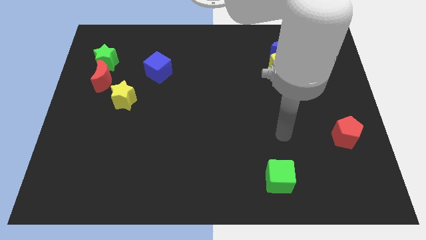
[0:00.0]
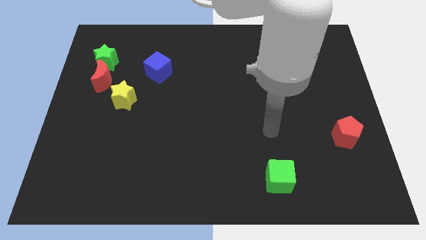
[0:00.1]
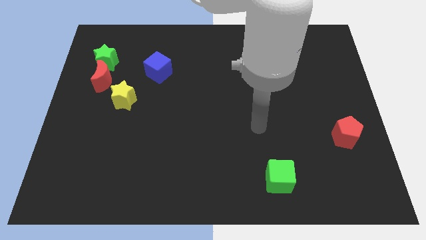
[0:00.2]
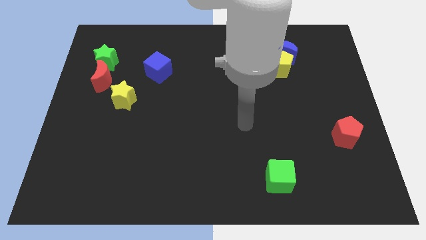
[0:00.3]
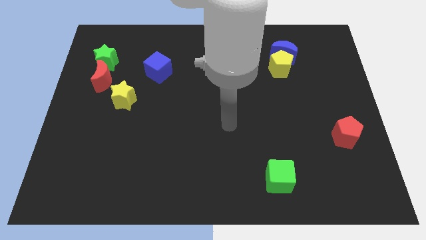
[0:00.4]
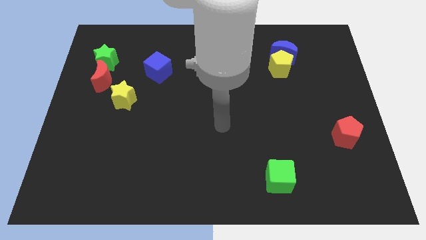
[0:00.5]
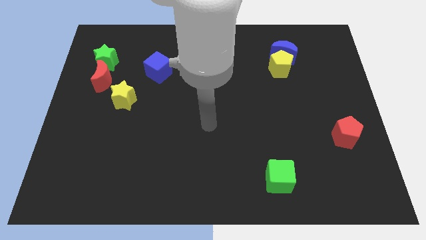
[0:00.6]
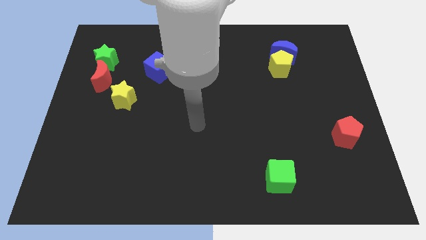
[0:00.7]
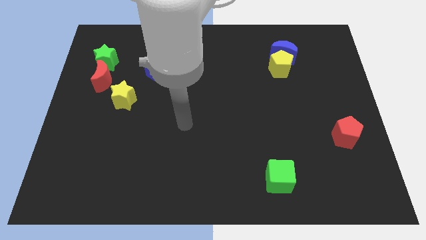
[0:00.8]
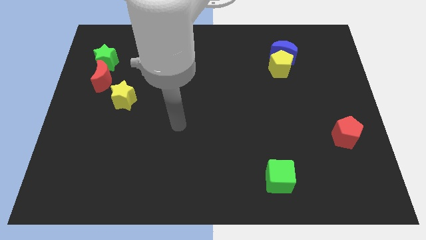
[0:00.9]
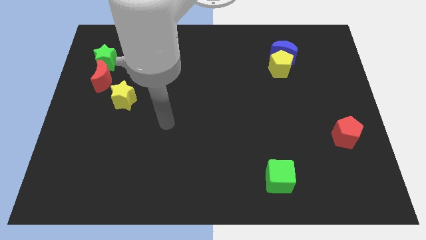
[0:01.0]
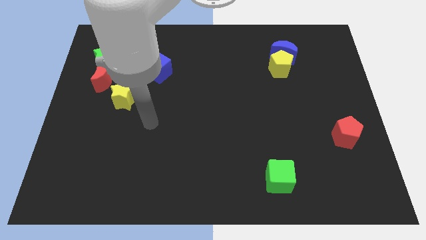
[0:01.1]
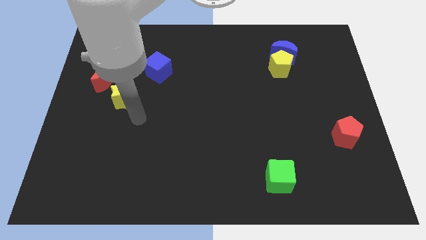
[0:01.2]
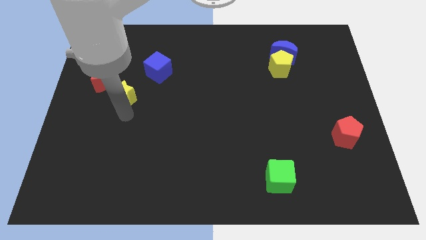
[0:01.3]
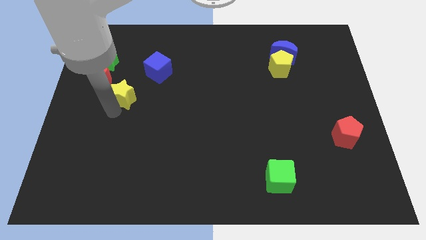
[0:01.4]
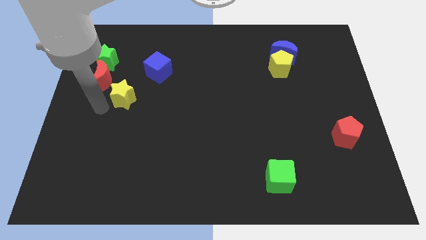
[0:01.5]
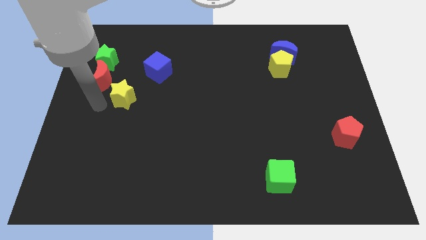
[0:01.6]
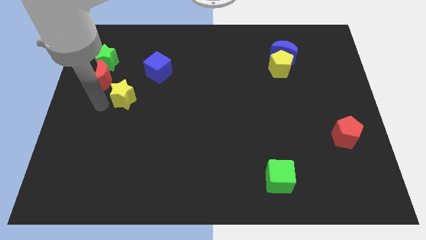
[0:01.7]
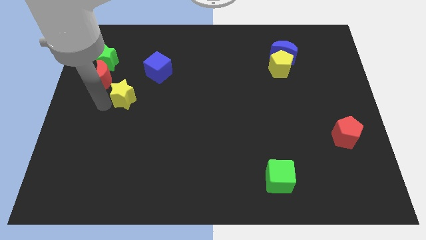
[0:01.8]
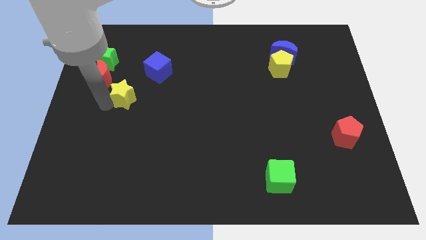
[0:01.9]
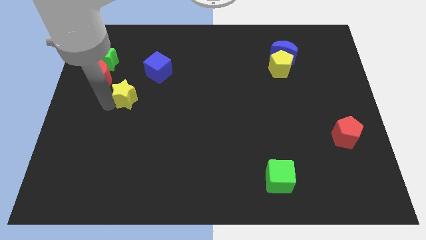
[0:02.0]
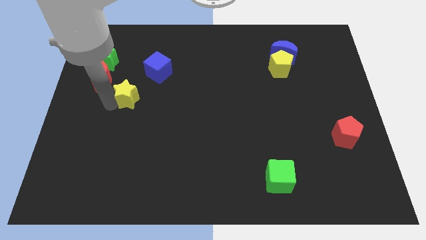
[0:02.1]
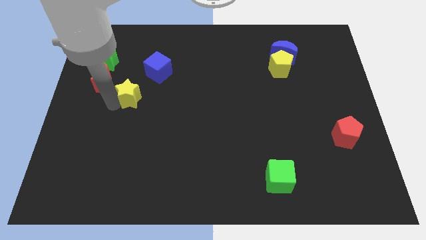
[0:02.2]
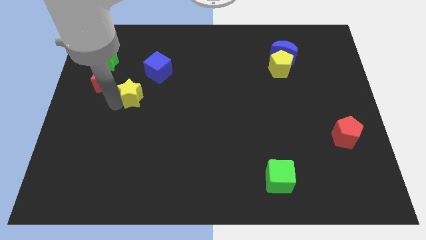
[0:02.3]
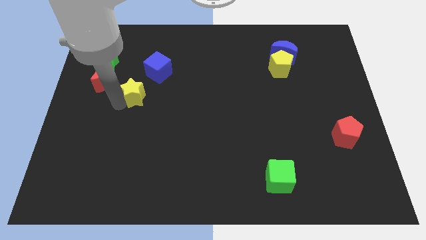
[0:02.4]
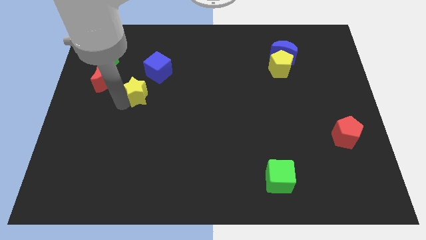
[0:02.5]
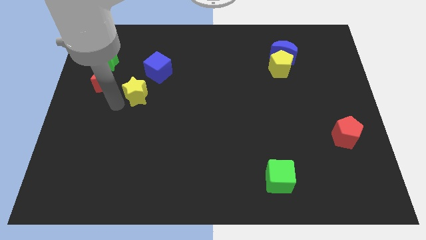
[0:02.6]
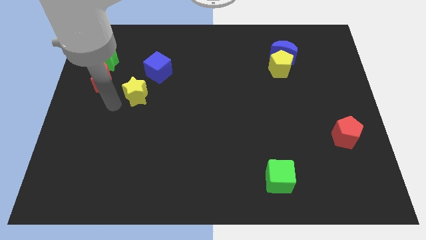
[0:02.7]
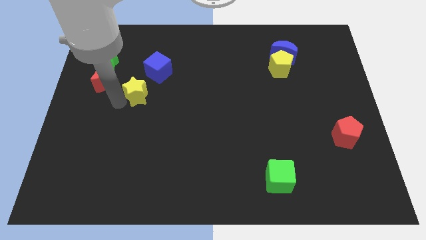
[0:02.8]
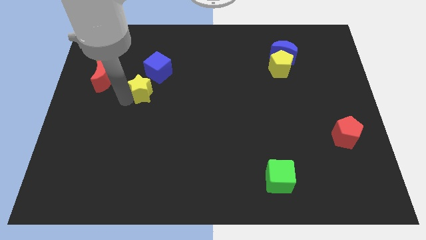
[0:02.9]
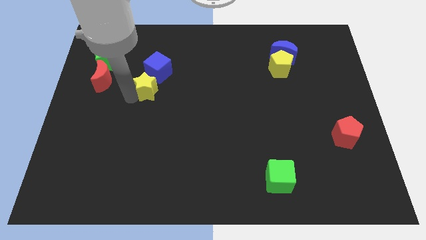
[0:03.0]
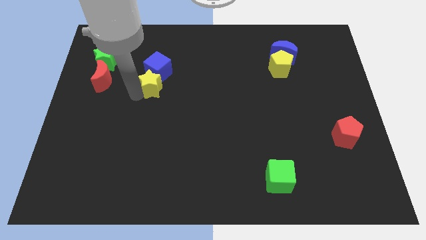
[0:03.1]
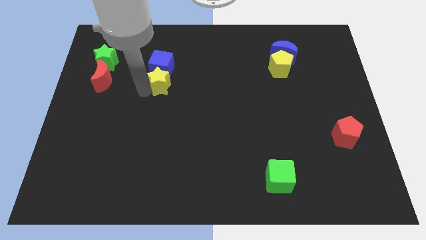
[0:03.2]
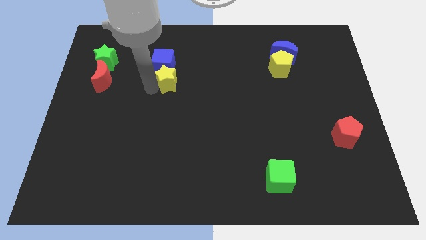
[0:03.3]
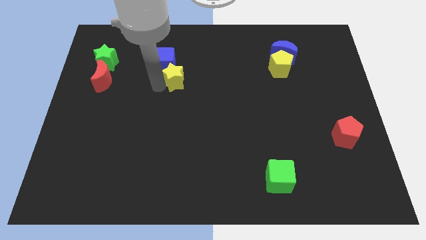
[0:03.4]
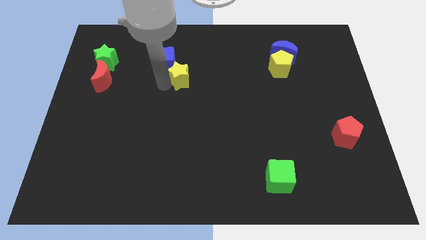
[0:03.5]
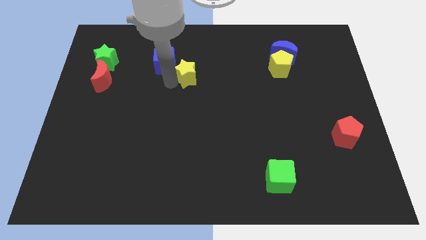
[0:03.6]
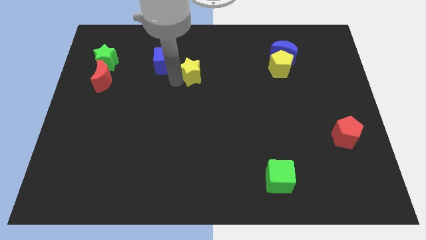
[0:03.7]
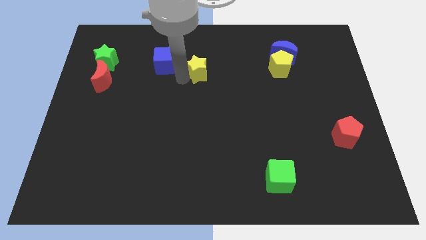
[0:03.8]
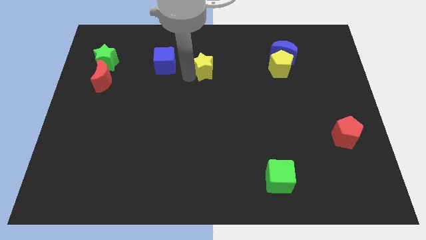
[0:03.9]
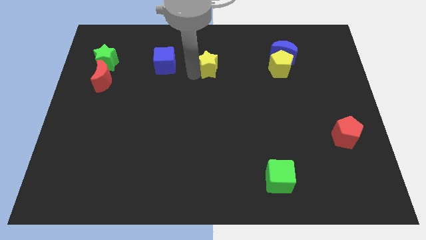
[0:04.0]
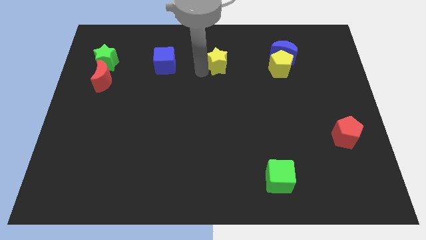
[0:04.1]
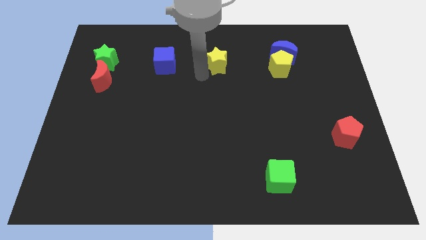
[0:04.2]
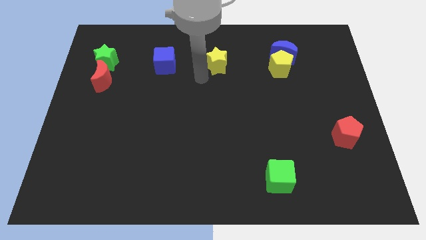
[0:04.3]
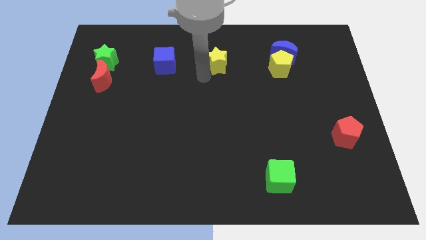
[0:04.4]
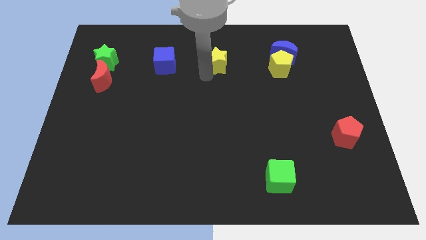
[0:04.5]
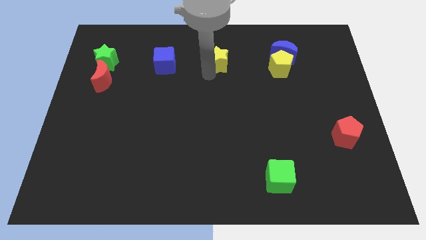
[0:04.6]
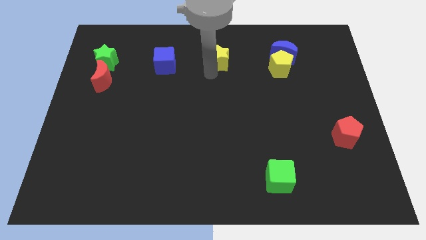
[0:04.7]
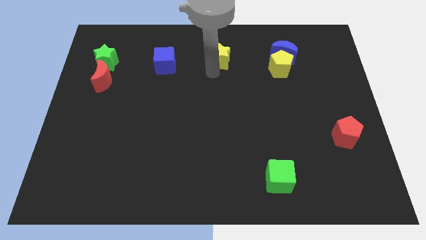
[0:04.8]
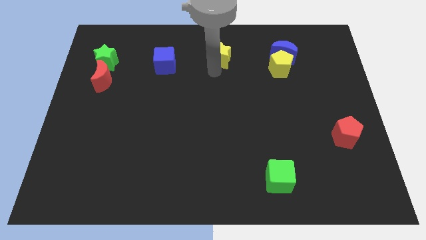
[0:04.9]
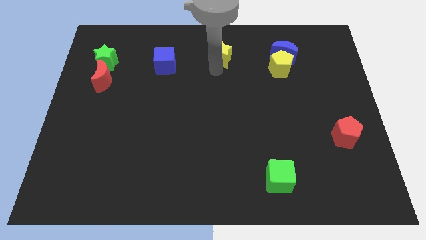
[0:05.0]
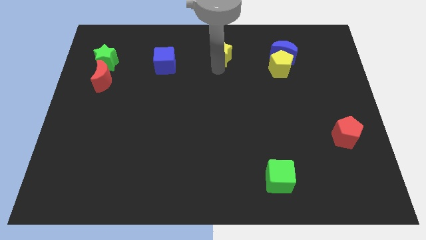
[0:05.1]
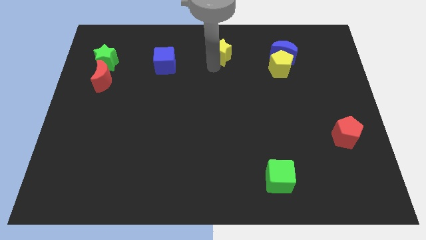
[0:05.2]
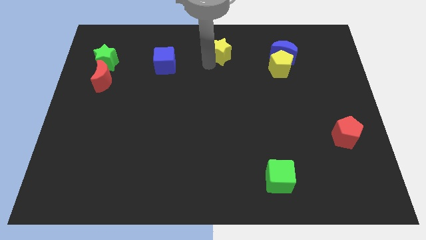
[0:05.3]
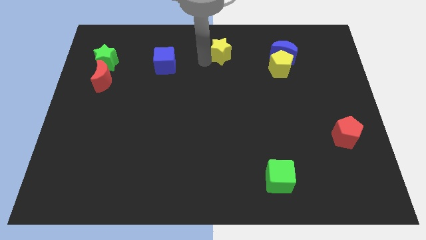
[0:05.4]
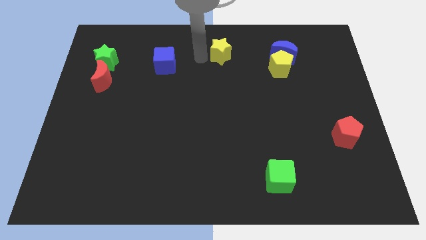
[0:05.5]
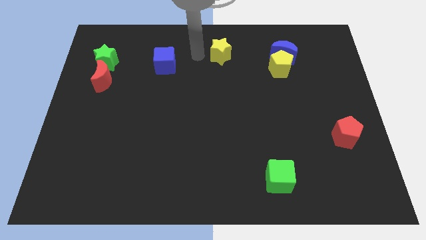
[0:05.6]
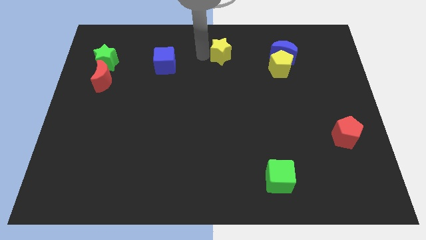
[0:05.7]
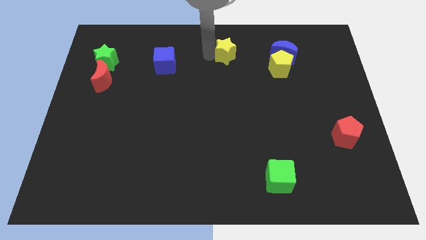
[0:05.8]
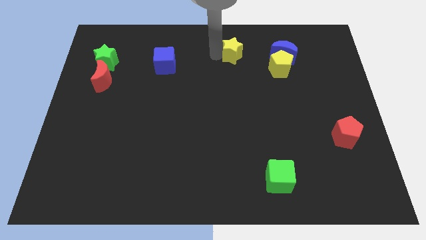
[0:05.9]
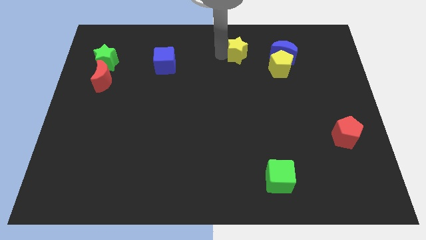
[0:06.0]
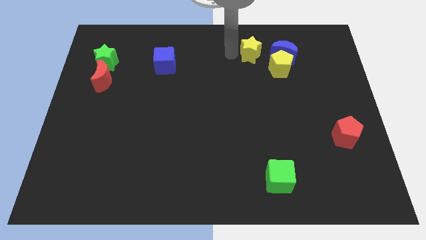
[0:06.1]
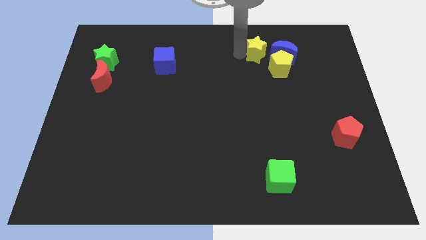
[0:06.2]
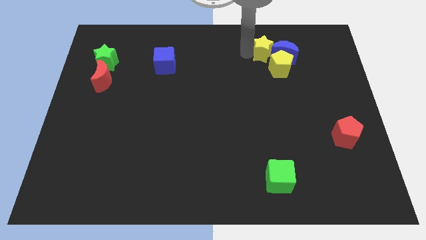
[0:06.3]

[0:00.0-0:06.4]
put the yellow star towards the blue moon
